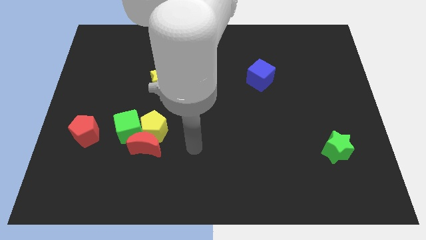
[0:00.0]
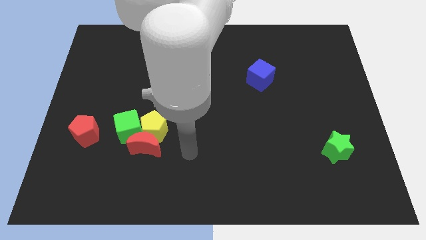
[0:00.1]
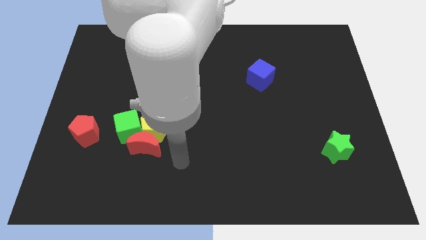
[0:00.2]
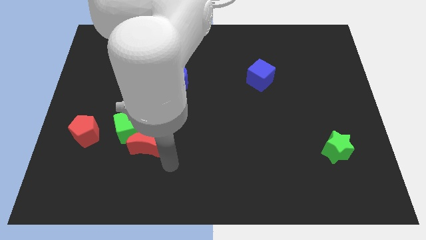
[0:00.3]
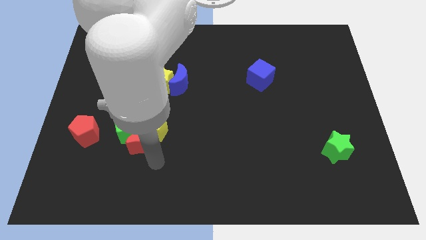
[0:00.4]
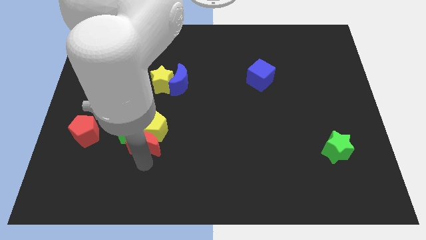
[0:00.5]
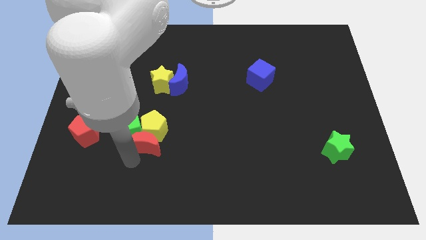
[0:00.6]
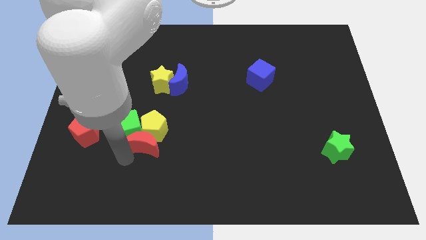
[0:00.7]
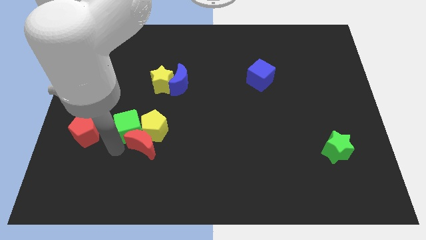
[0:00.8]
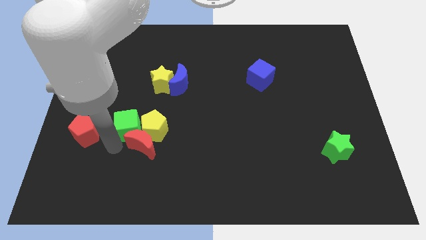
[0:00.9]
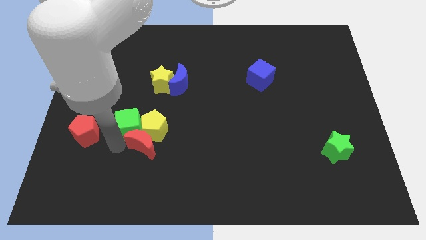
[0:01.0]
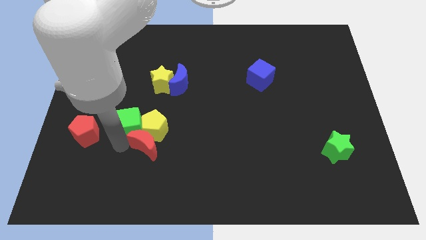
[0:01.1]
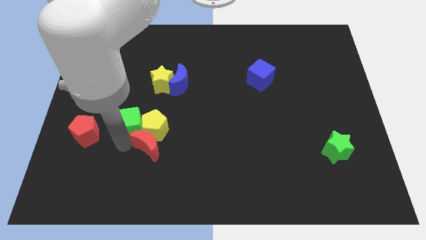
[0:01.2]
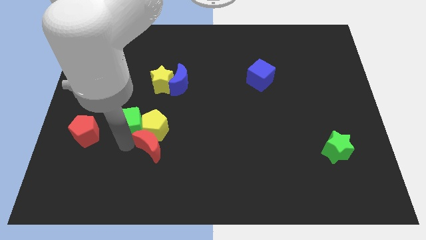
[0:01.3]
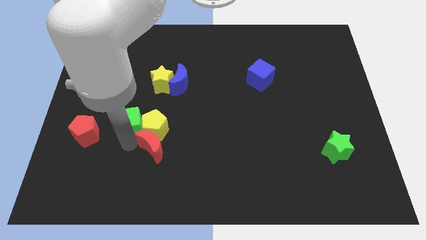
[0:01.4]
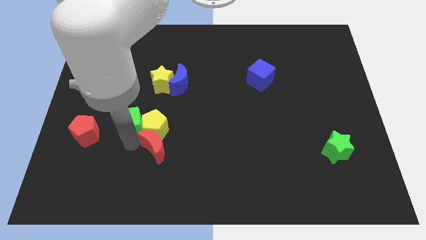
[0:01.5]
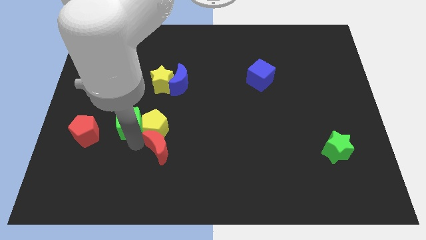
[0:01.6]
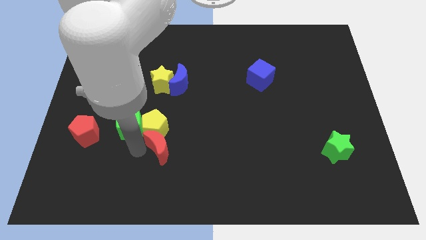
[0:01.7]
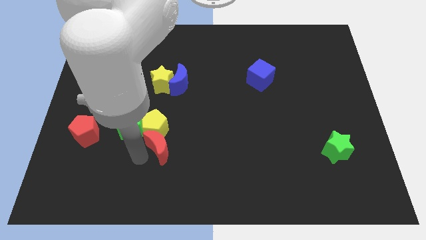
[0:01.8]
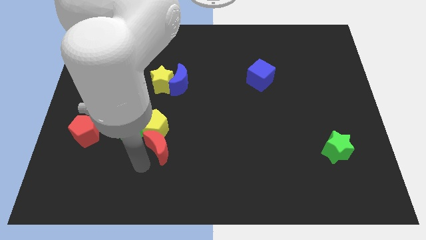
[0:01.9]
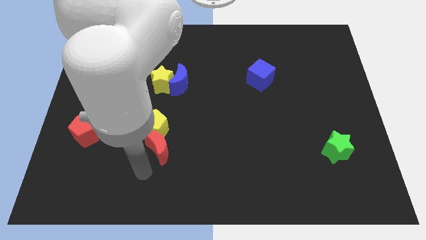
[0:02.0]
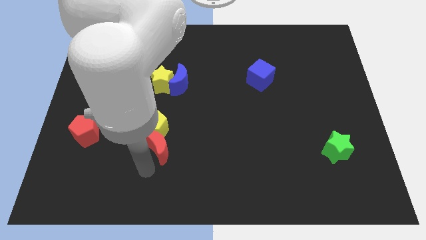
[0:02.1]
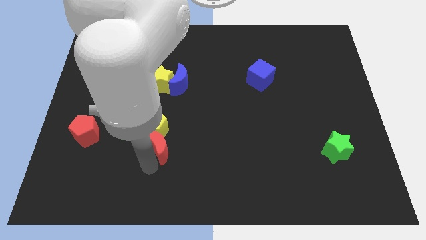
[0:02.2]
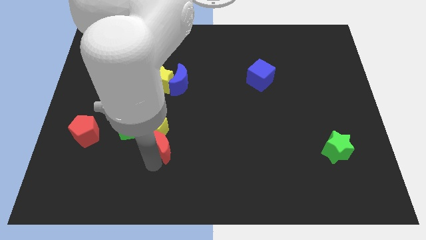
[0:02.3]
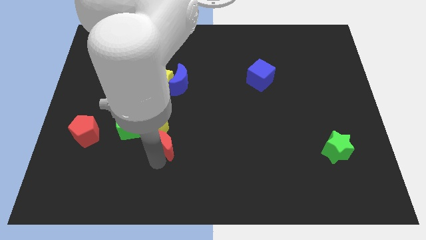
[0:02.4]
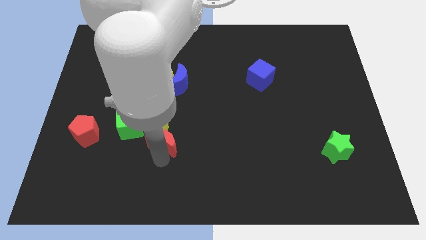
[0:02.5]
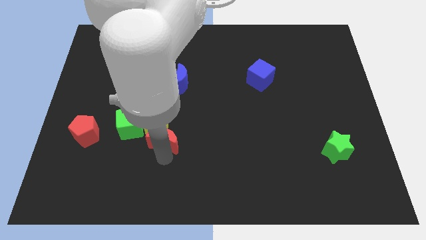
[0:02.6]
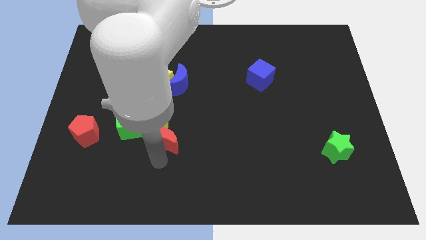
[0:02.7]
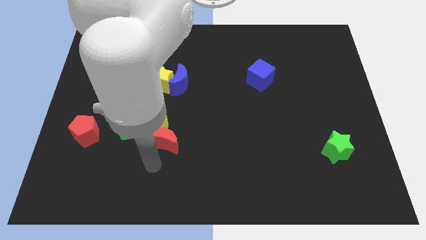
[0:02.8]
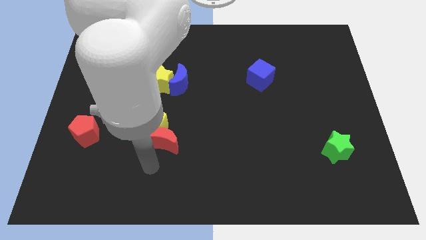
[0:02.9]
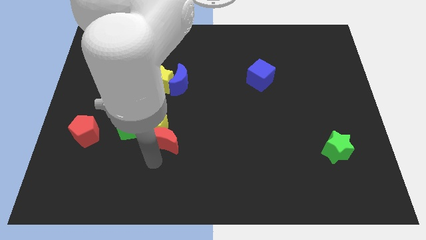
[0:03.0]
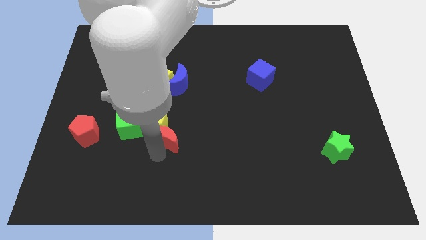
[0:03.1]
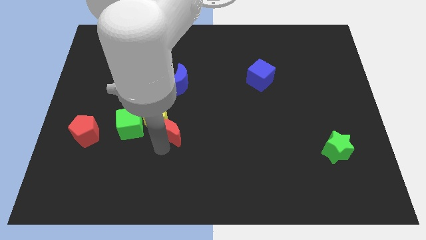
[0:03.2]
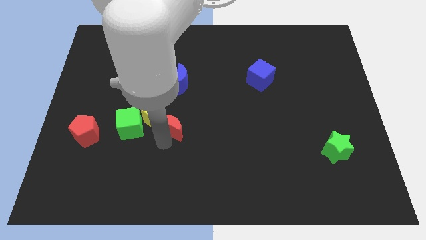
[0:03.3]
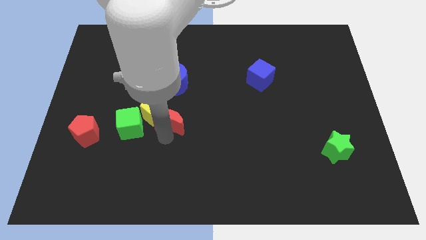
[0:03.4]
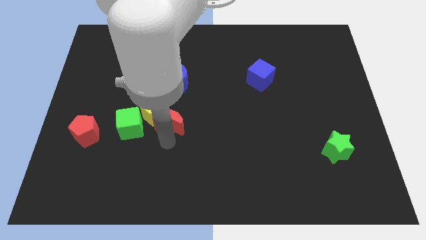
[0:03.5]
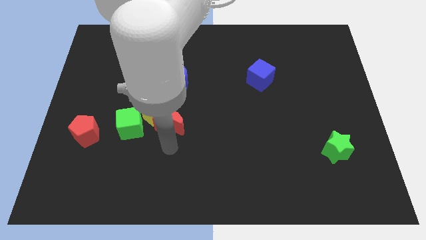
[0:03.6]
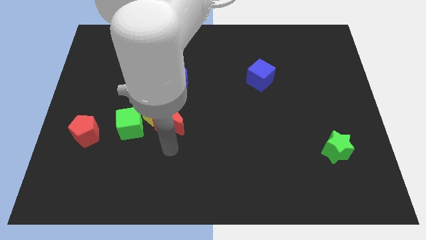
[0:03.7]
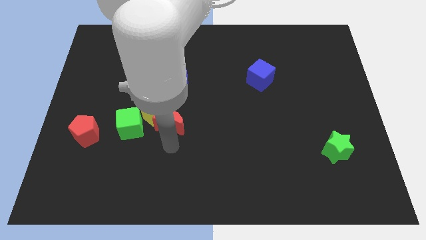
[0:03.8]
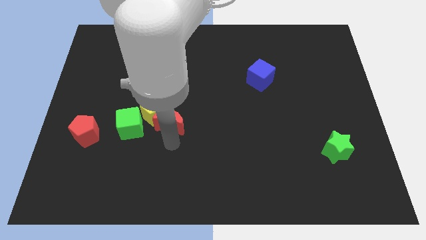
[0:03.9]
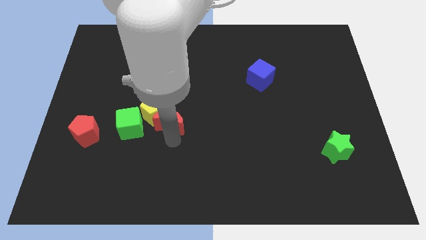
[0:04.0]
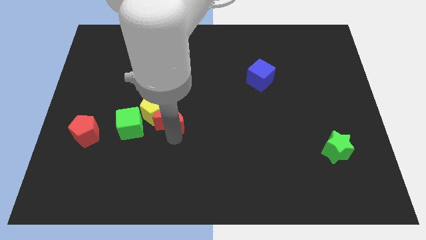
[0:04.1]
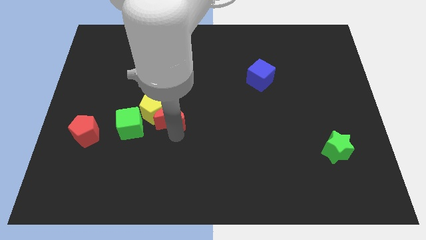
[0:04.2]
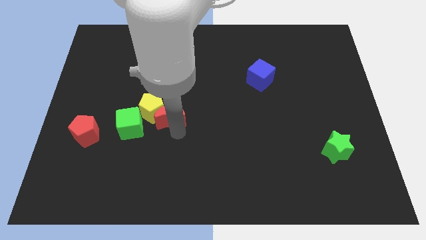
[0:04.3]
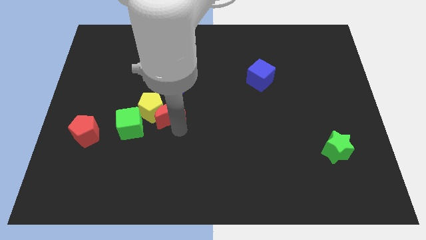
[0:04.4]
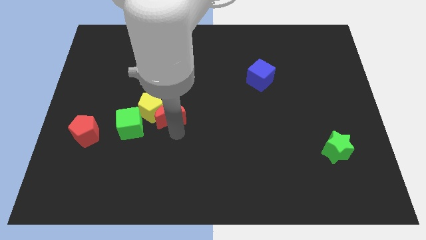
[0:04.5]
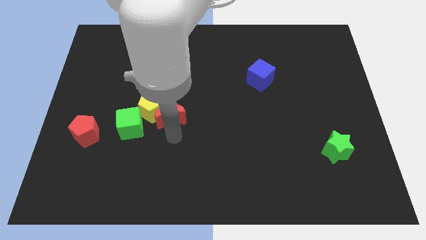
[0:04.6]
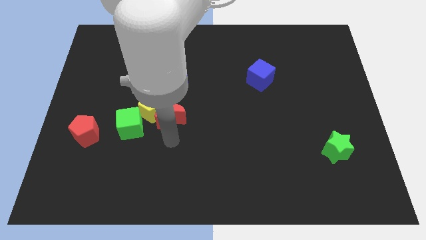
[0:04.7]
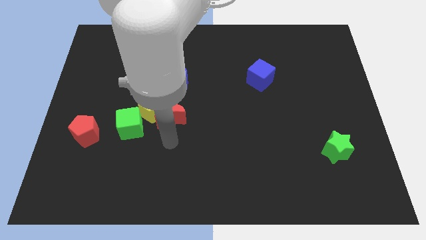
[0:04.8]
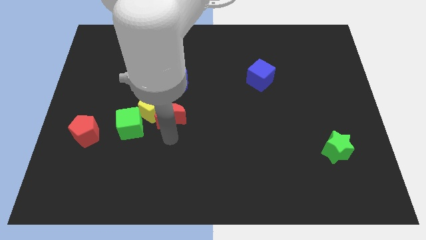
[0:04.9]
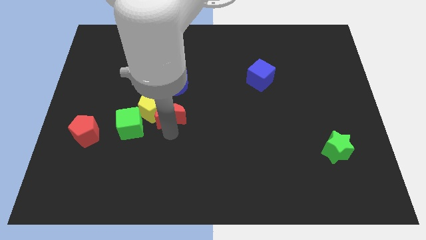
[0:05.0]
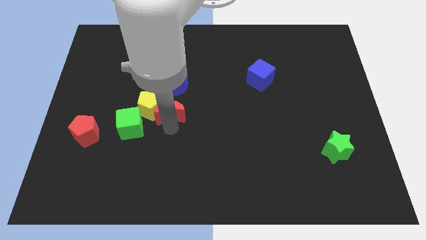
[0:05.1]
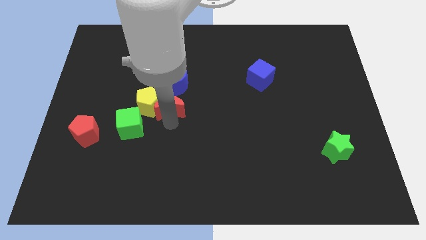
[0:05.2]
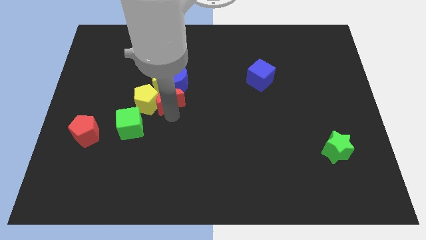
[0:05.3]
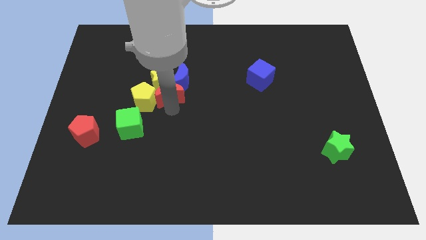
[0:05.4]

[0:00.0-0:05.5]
slide the red moon close to the yellow star

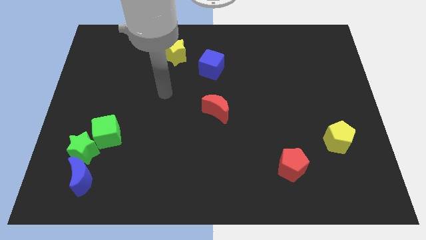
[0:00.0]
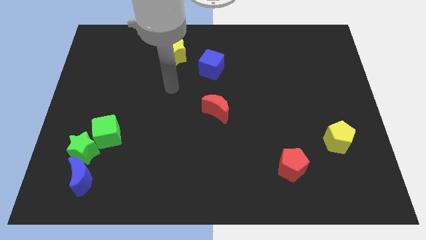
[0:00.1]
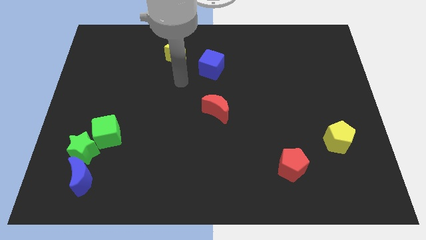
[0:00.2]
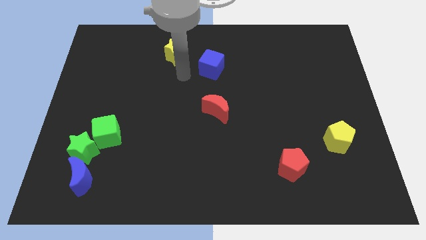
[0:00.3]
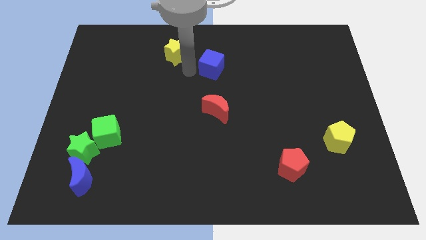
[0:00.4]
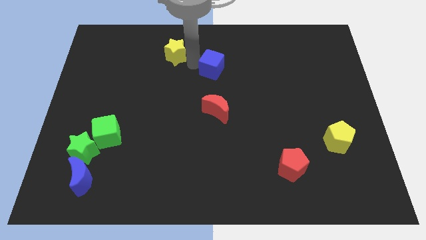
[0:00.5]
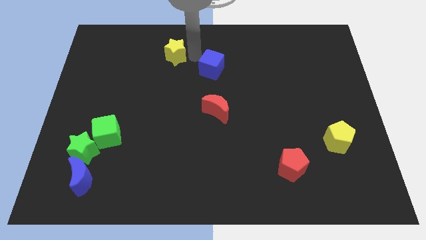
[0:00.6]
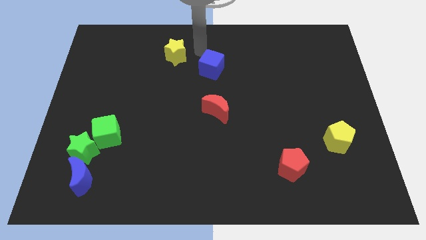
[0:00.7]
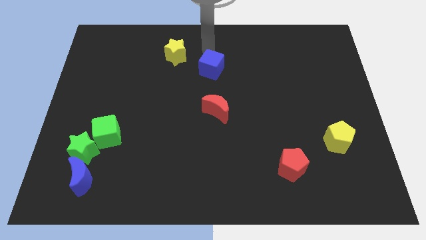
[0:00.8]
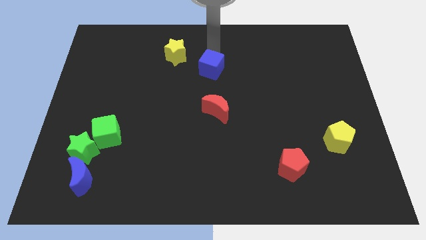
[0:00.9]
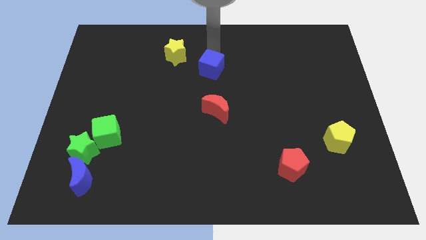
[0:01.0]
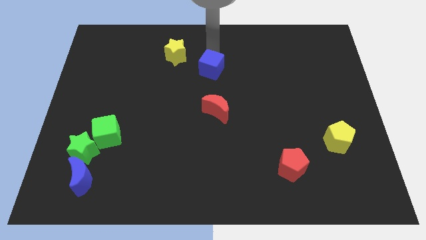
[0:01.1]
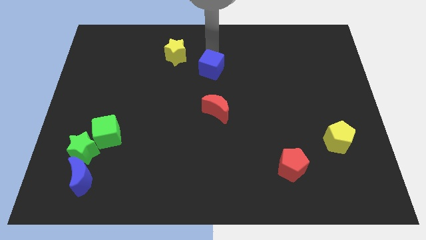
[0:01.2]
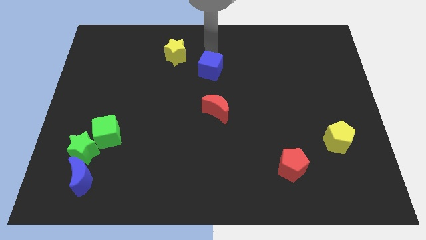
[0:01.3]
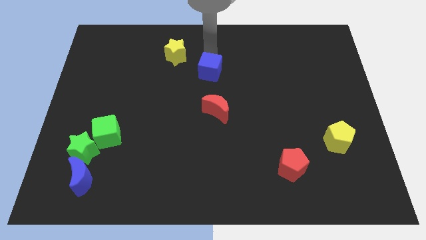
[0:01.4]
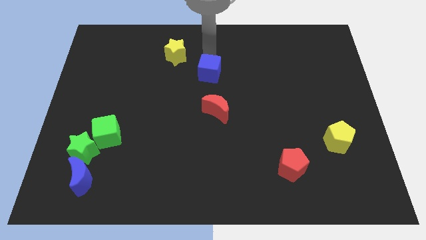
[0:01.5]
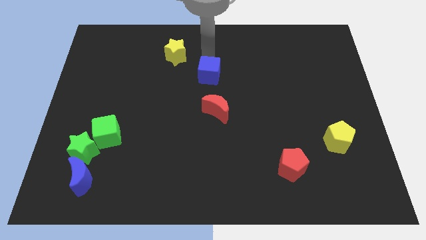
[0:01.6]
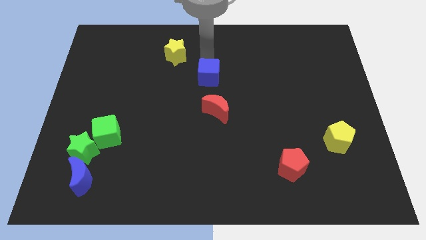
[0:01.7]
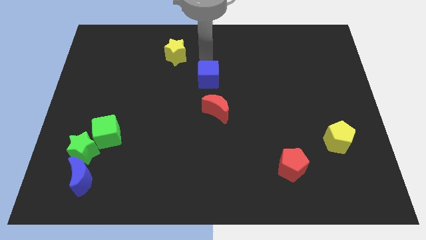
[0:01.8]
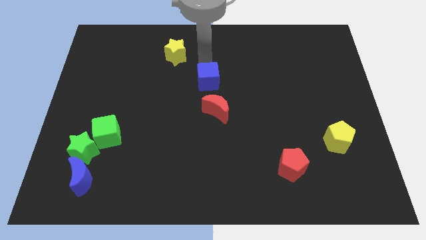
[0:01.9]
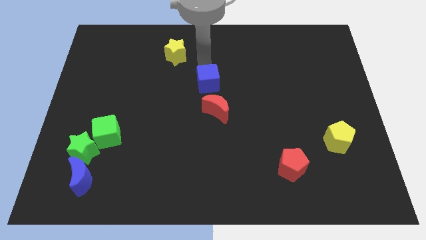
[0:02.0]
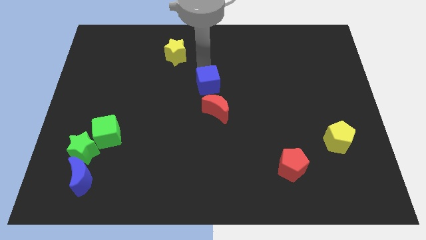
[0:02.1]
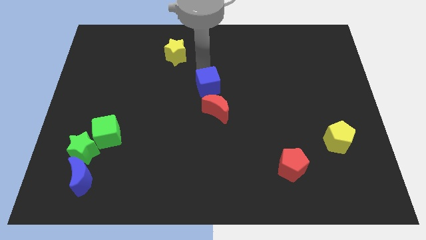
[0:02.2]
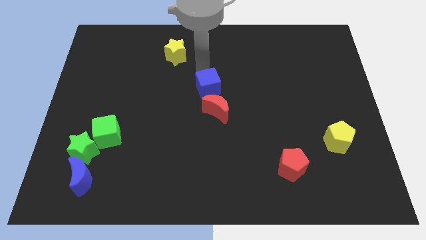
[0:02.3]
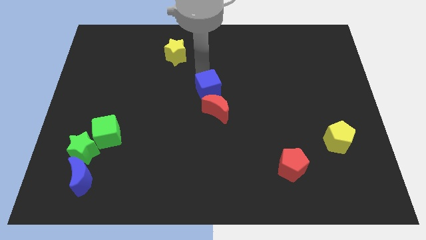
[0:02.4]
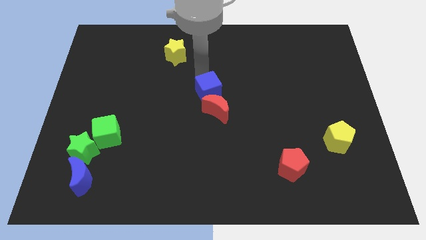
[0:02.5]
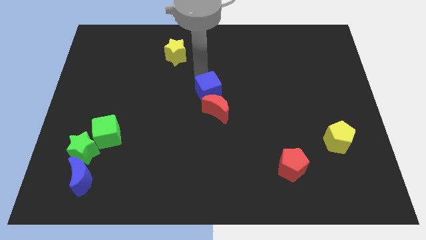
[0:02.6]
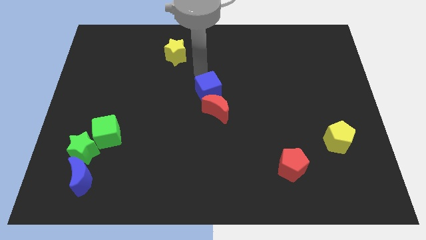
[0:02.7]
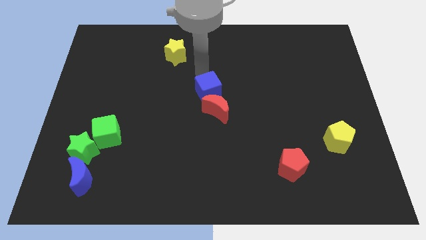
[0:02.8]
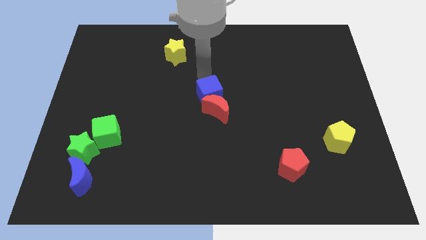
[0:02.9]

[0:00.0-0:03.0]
push the blue cube to the red moon
